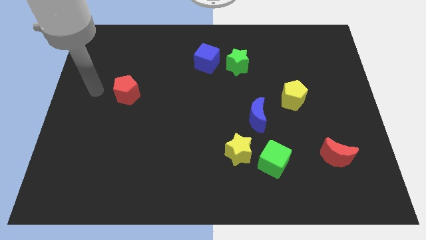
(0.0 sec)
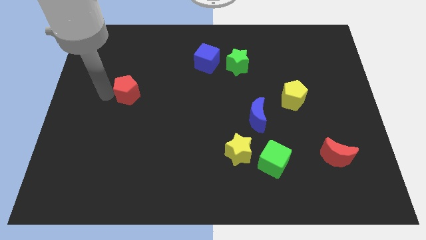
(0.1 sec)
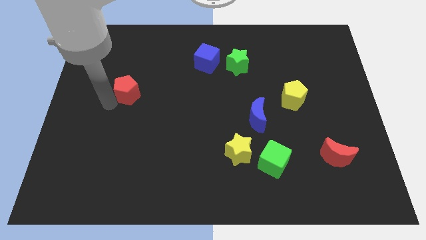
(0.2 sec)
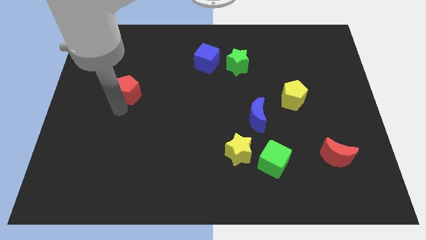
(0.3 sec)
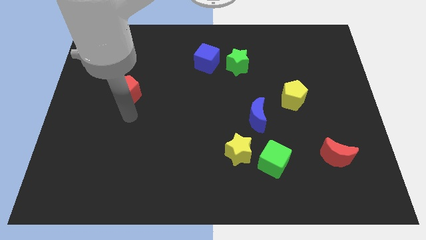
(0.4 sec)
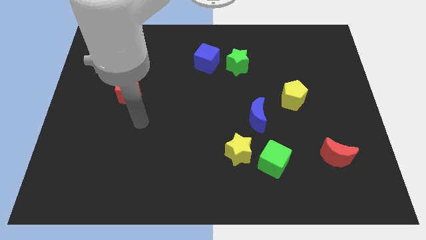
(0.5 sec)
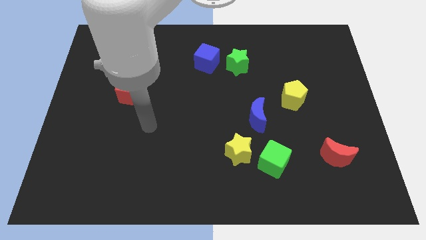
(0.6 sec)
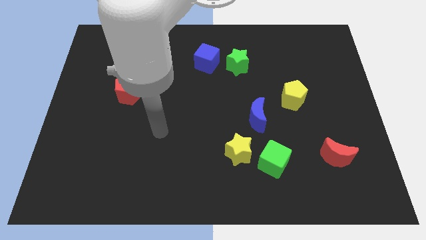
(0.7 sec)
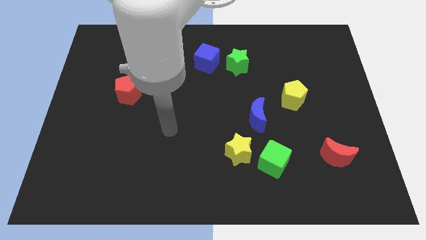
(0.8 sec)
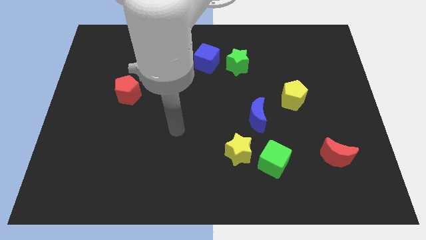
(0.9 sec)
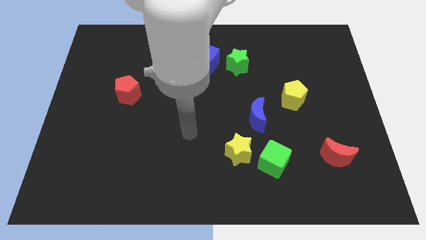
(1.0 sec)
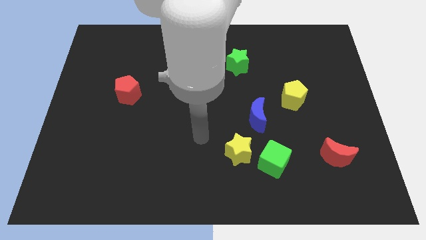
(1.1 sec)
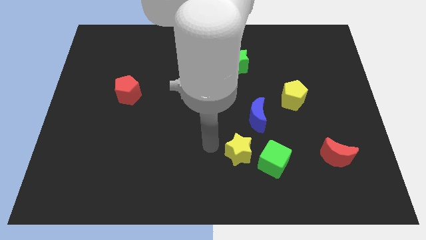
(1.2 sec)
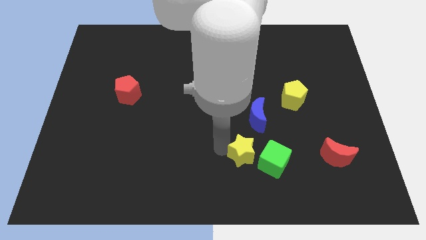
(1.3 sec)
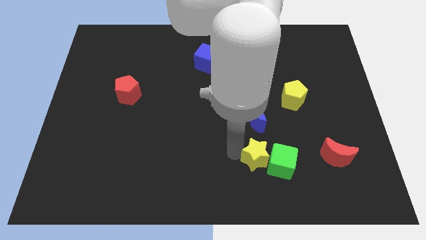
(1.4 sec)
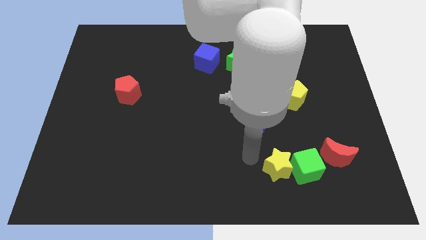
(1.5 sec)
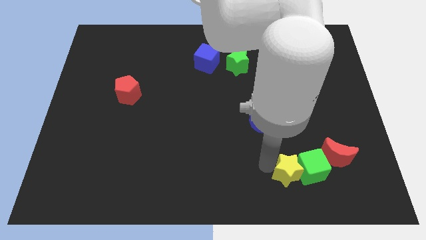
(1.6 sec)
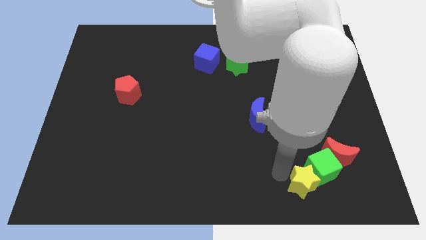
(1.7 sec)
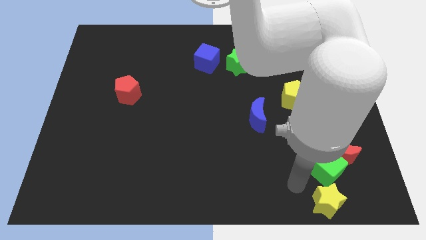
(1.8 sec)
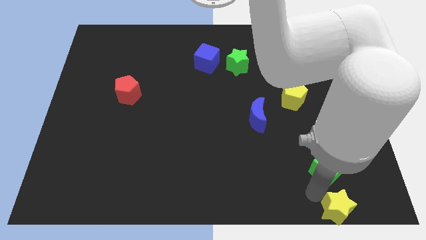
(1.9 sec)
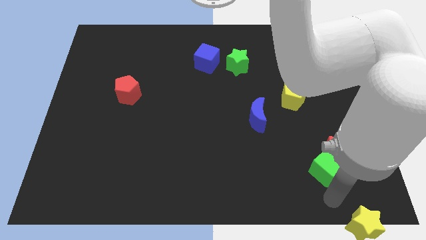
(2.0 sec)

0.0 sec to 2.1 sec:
separate the green cube from the yellow star

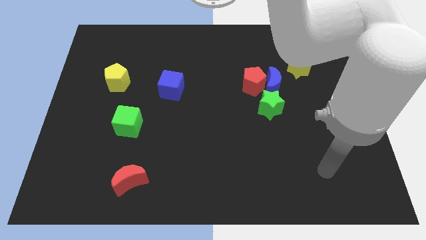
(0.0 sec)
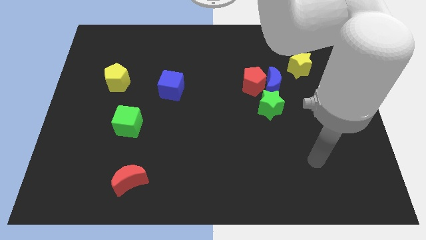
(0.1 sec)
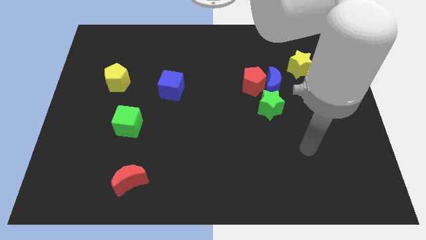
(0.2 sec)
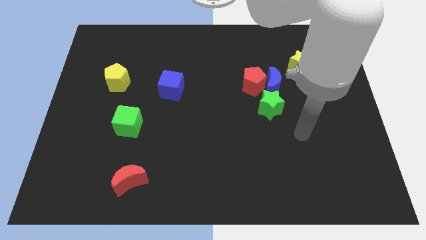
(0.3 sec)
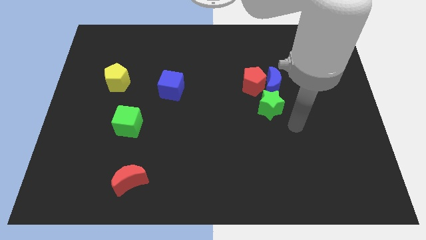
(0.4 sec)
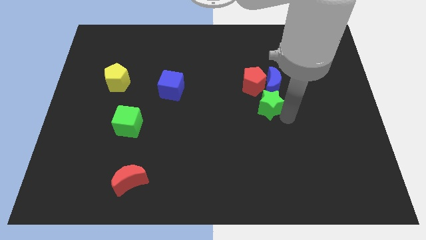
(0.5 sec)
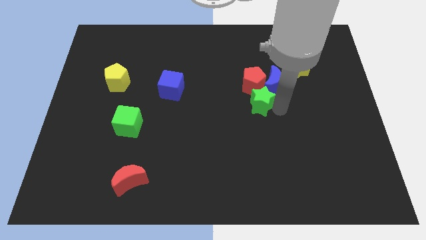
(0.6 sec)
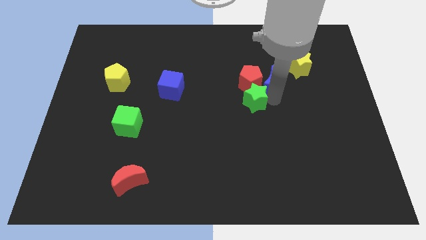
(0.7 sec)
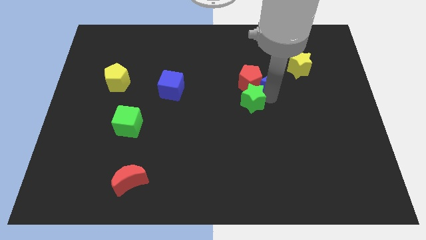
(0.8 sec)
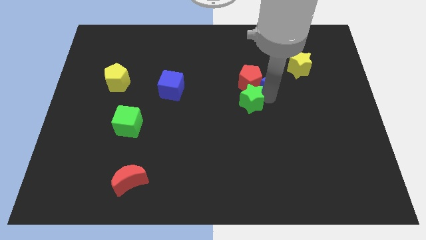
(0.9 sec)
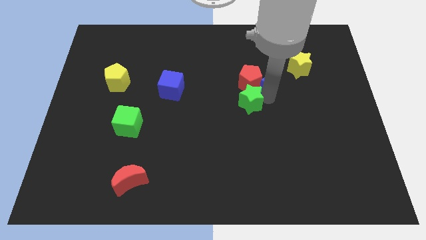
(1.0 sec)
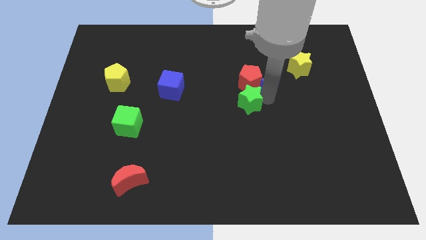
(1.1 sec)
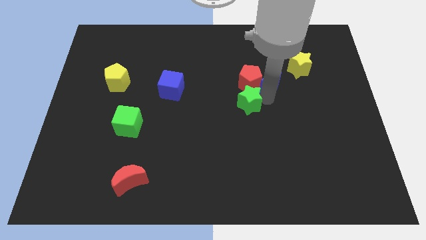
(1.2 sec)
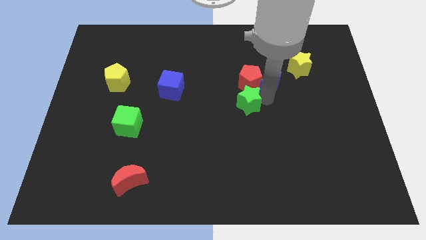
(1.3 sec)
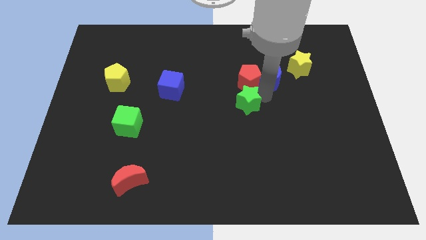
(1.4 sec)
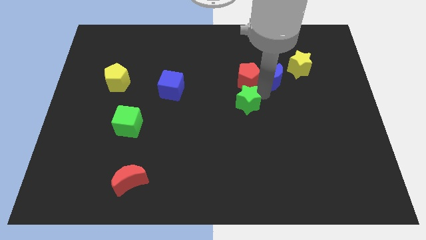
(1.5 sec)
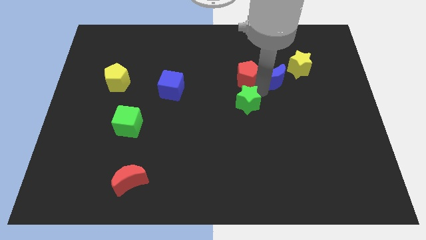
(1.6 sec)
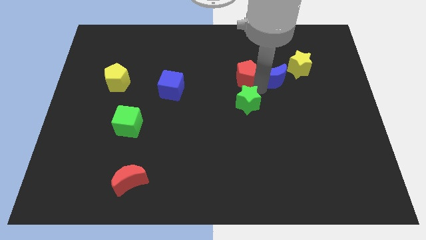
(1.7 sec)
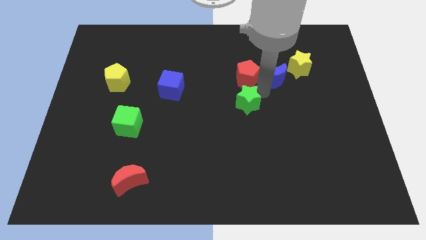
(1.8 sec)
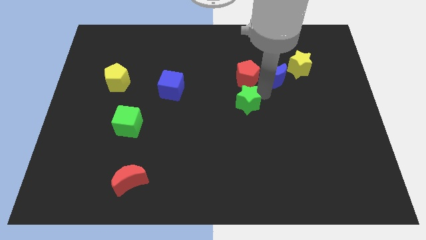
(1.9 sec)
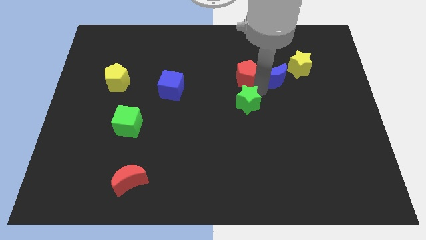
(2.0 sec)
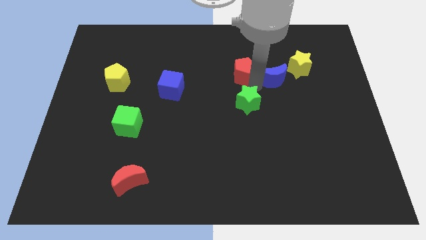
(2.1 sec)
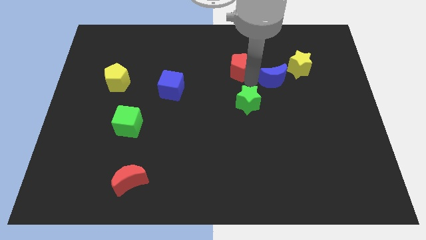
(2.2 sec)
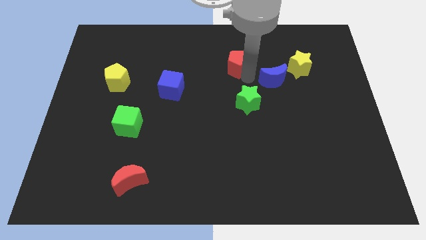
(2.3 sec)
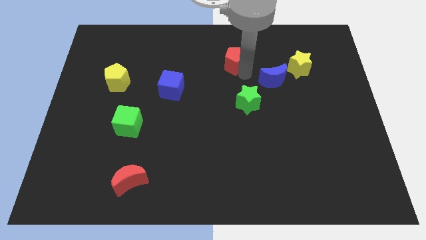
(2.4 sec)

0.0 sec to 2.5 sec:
move the red pentagon away from the blue moon and green star

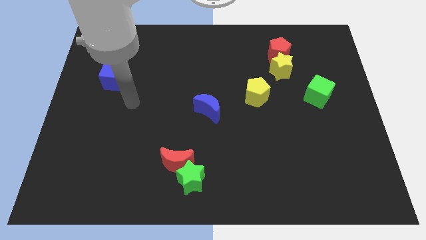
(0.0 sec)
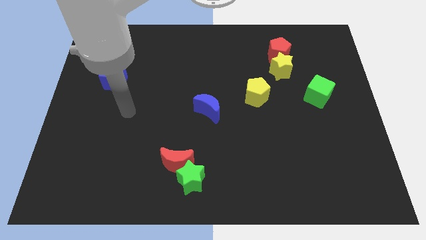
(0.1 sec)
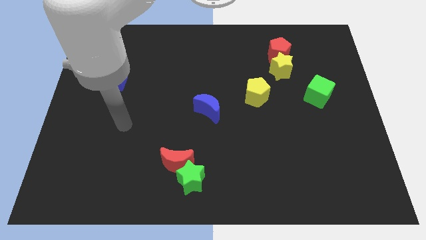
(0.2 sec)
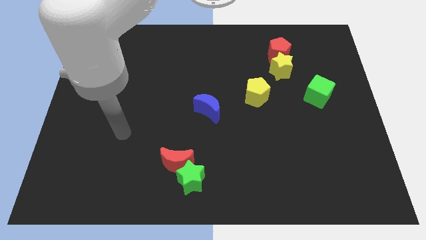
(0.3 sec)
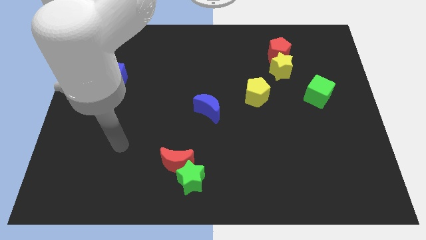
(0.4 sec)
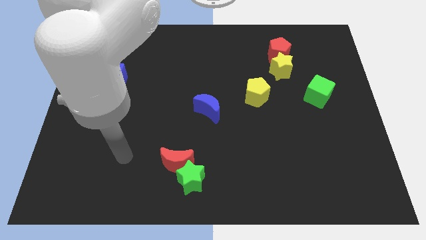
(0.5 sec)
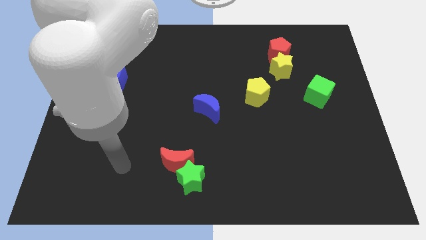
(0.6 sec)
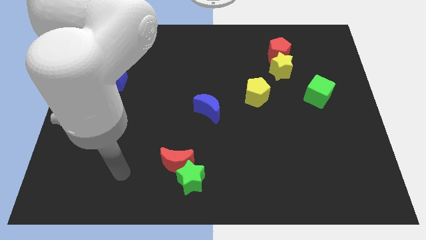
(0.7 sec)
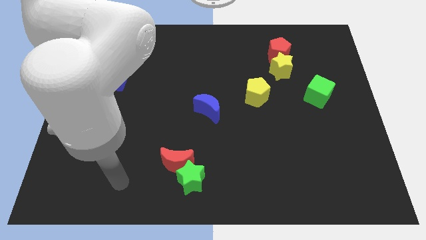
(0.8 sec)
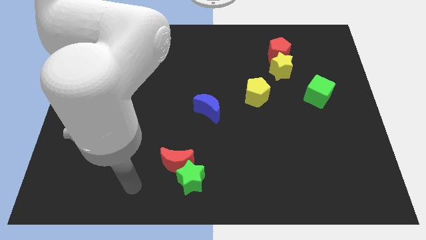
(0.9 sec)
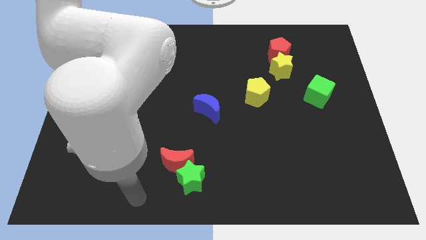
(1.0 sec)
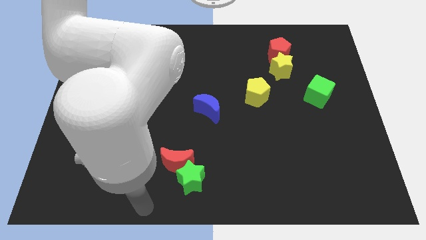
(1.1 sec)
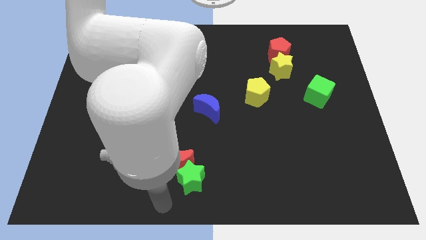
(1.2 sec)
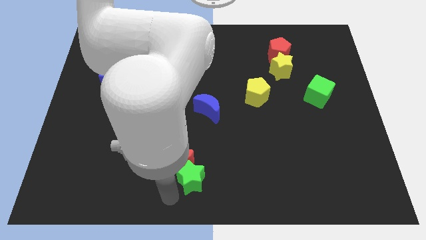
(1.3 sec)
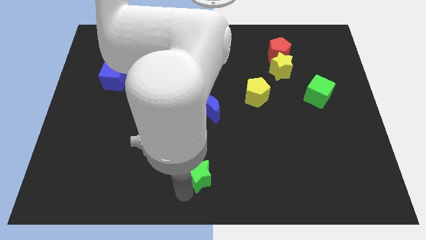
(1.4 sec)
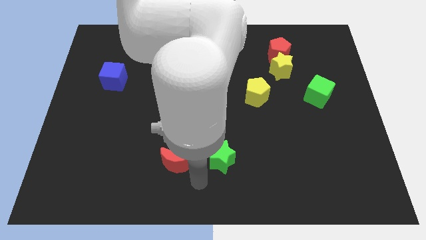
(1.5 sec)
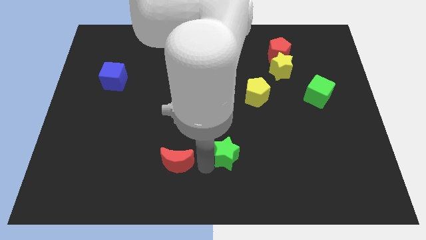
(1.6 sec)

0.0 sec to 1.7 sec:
pull the red moon apart from the green star

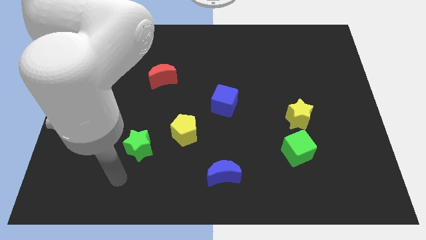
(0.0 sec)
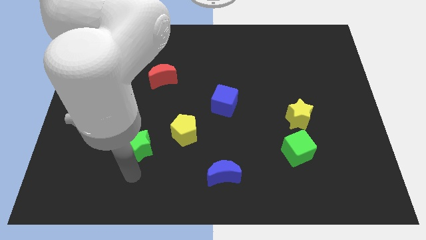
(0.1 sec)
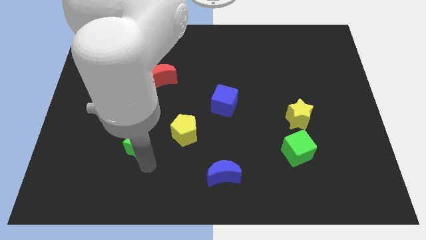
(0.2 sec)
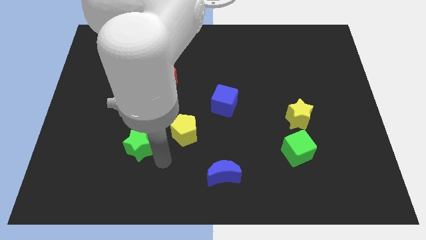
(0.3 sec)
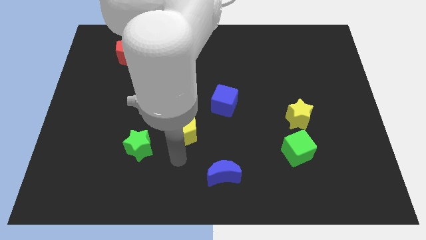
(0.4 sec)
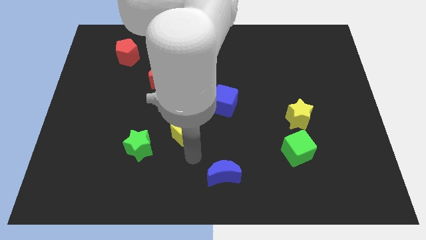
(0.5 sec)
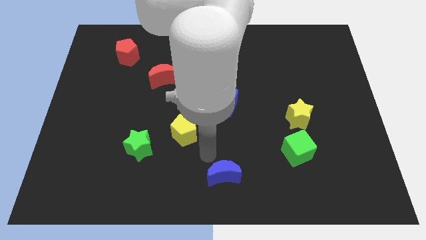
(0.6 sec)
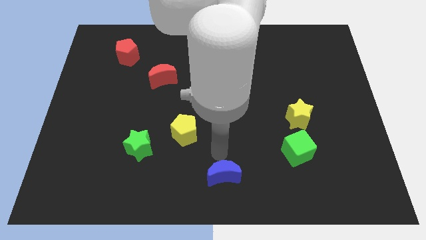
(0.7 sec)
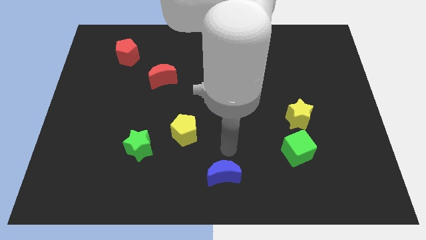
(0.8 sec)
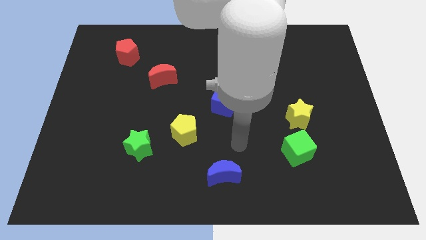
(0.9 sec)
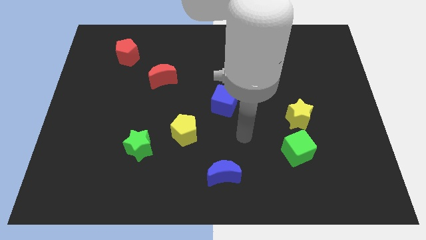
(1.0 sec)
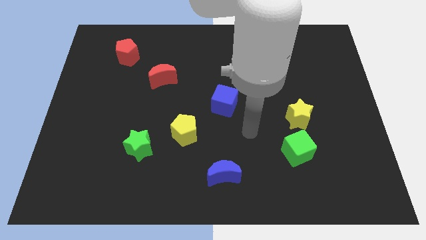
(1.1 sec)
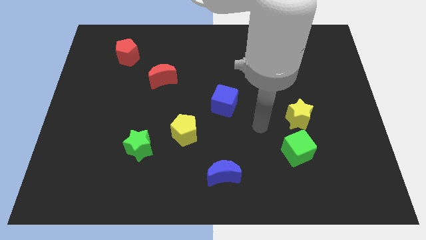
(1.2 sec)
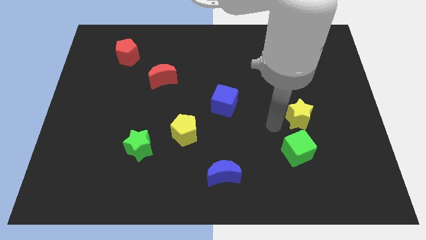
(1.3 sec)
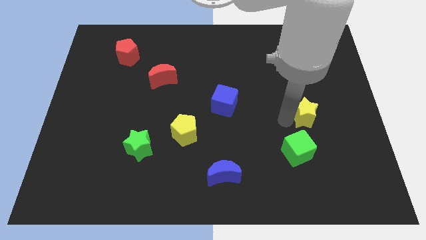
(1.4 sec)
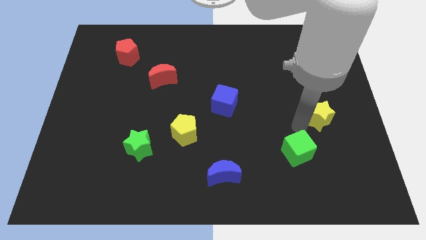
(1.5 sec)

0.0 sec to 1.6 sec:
move the green cube away from the yellow star

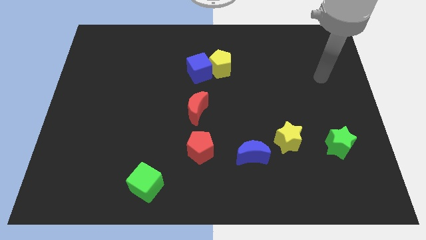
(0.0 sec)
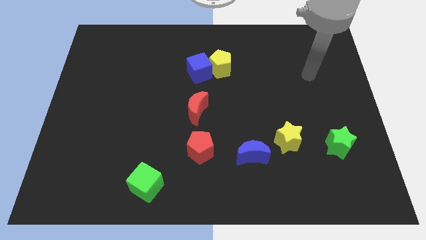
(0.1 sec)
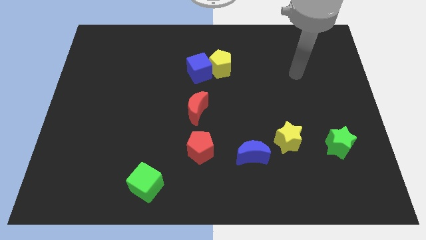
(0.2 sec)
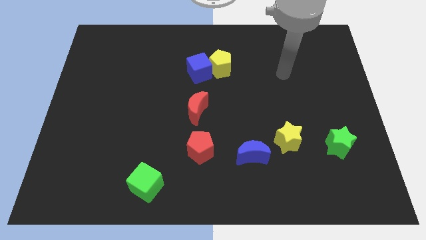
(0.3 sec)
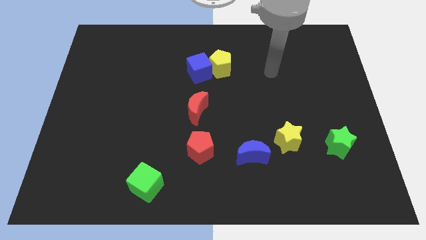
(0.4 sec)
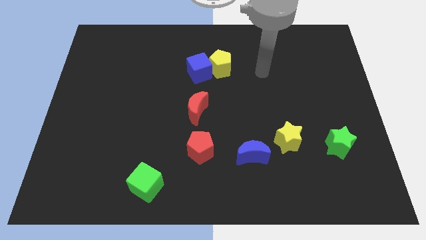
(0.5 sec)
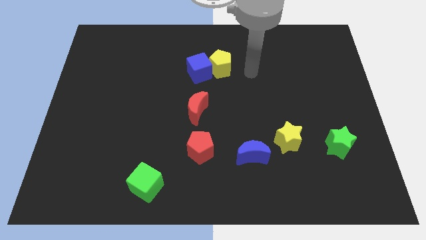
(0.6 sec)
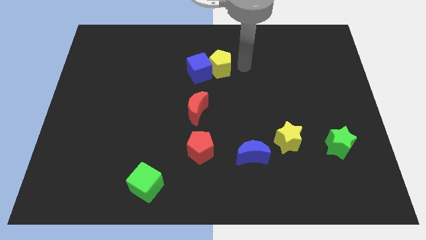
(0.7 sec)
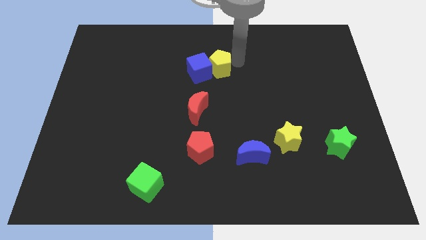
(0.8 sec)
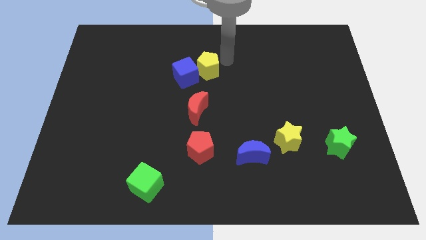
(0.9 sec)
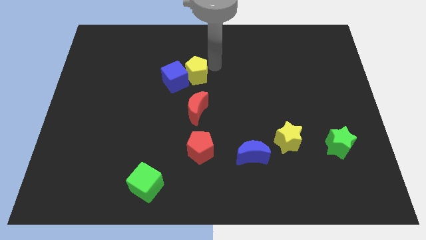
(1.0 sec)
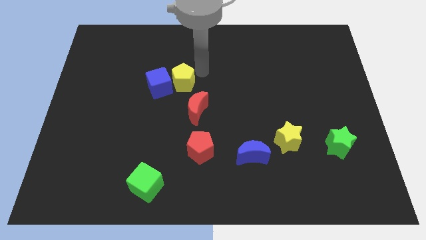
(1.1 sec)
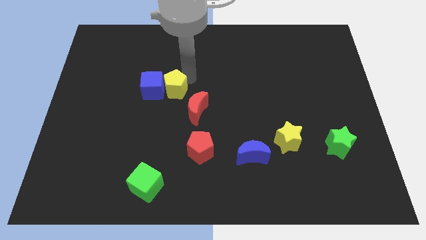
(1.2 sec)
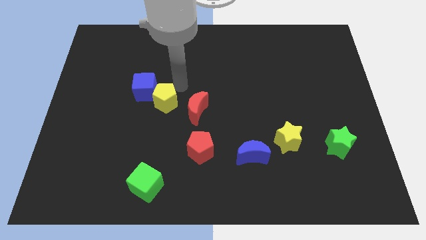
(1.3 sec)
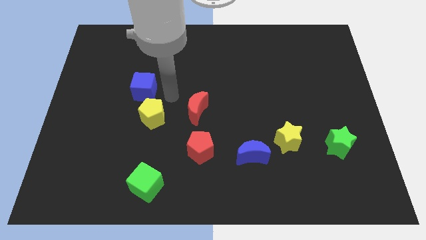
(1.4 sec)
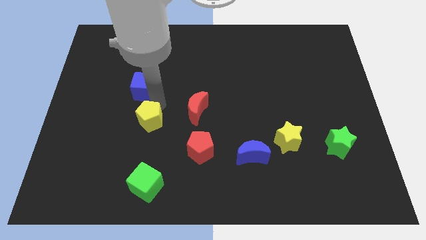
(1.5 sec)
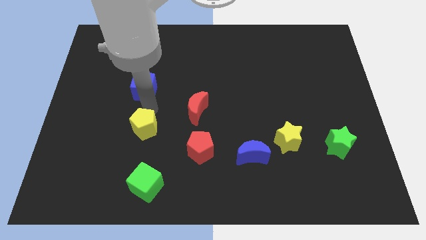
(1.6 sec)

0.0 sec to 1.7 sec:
pull the blue cube apart from the yellow pentagon
